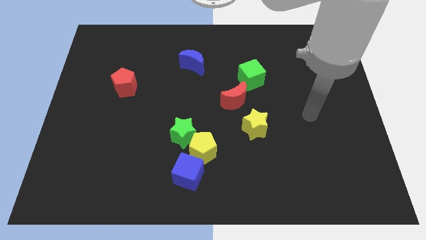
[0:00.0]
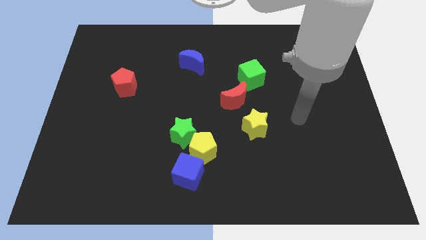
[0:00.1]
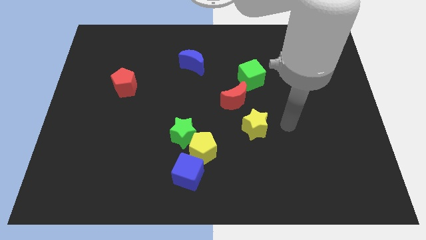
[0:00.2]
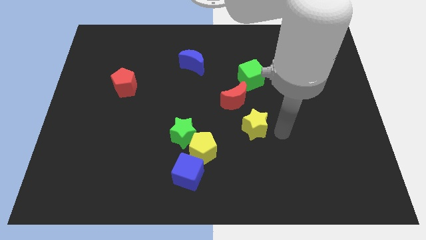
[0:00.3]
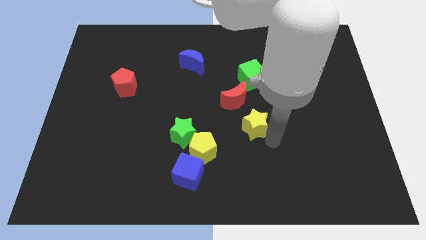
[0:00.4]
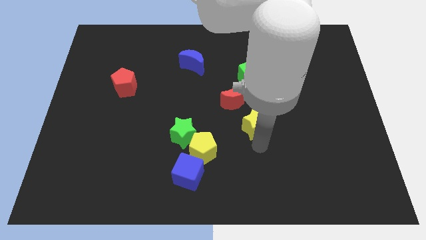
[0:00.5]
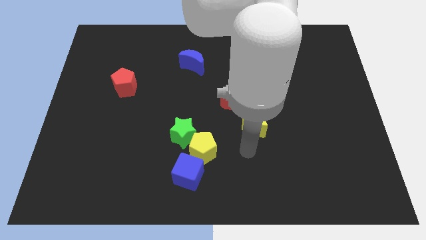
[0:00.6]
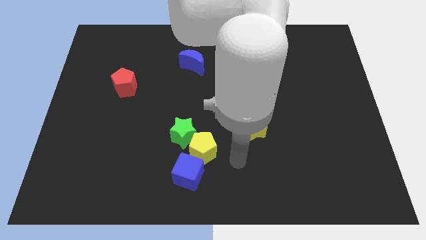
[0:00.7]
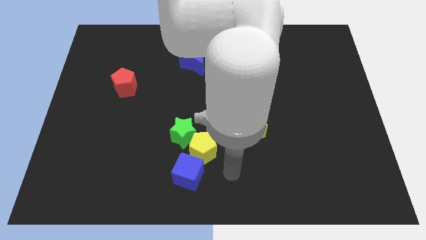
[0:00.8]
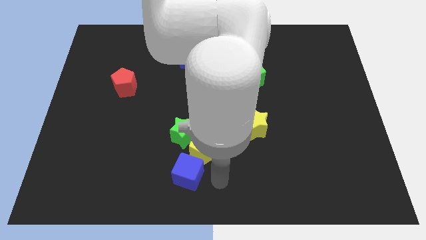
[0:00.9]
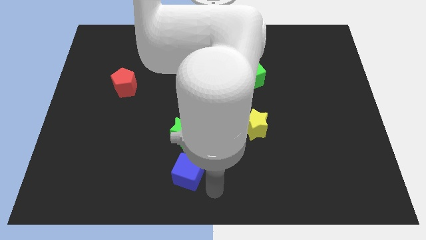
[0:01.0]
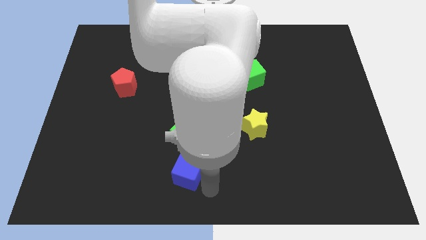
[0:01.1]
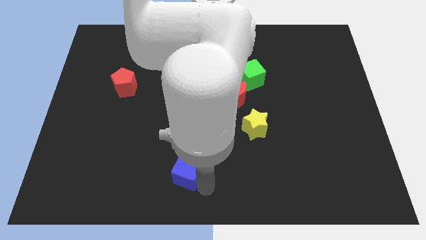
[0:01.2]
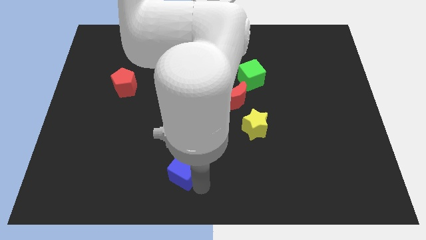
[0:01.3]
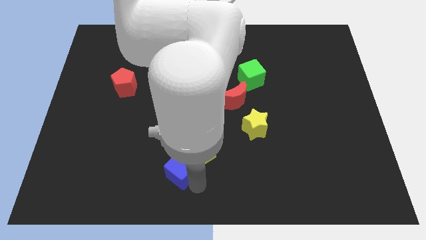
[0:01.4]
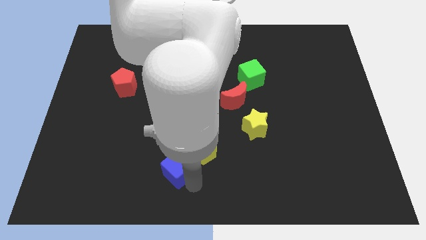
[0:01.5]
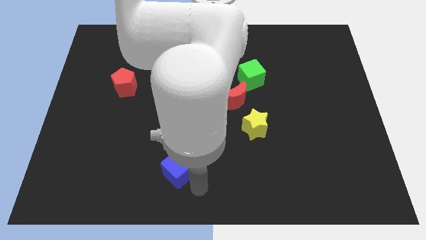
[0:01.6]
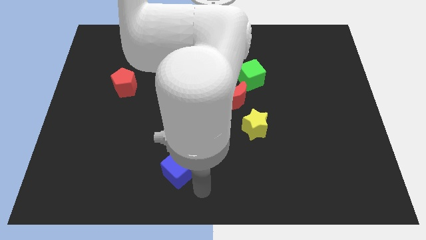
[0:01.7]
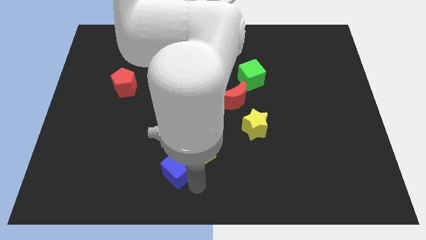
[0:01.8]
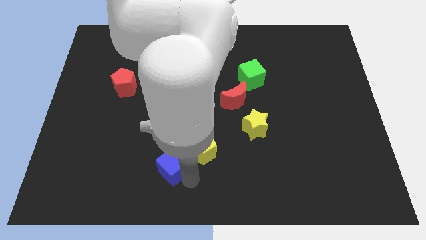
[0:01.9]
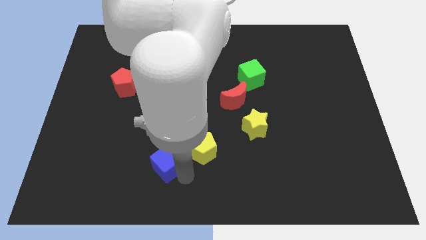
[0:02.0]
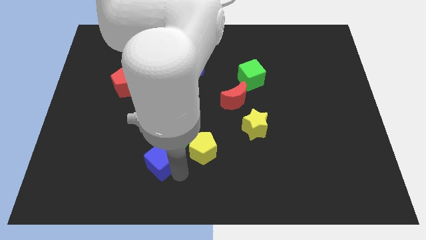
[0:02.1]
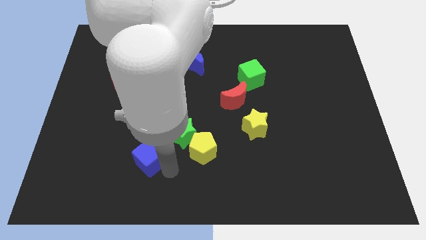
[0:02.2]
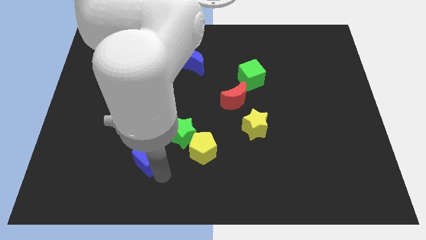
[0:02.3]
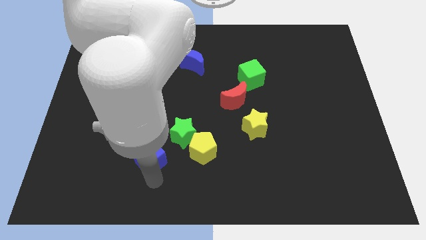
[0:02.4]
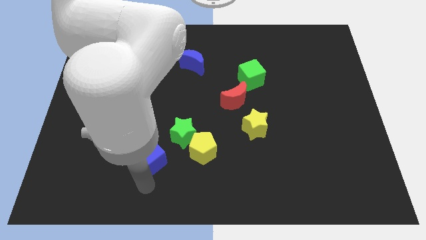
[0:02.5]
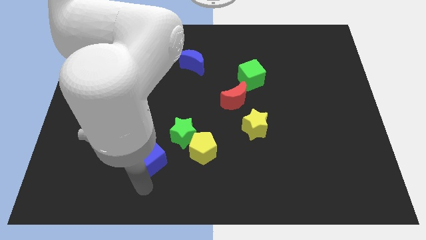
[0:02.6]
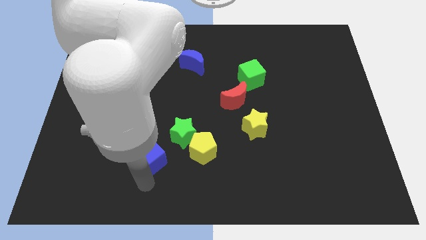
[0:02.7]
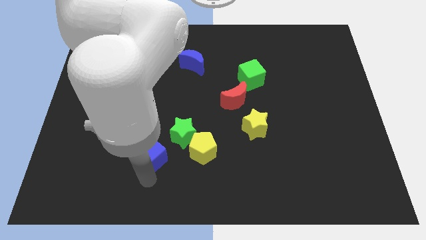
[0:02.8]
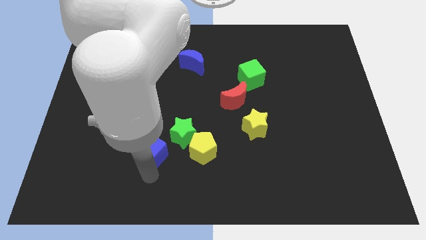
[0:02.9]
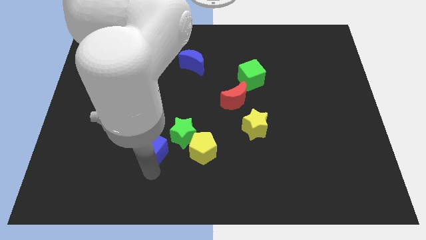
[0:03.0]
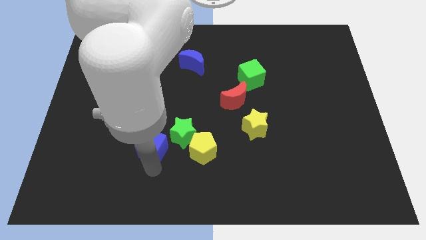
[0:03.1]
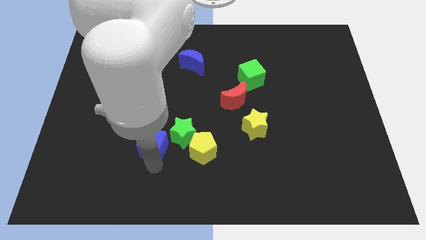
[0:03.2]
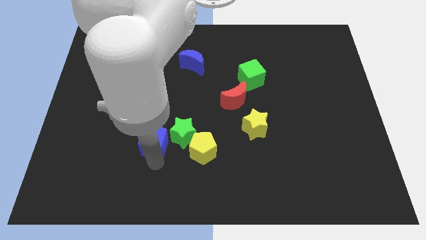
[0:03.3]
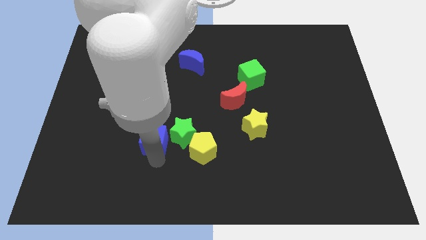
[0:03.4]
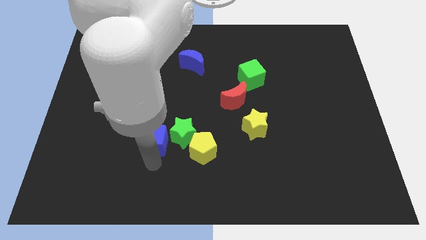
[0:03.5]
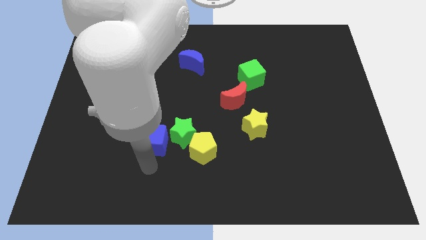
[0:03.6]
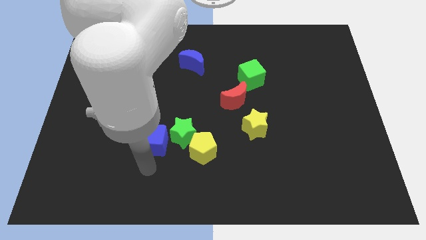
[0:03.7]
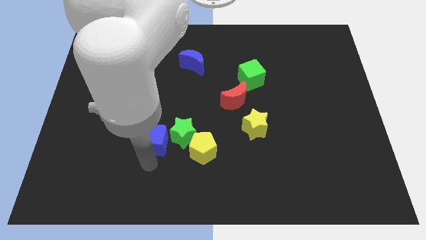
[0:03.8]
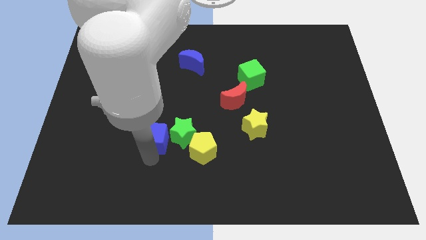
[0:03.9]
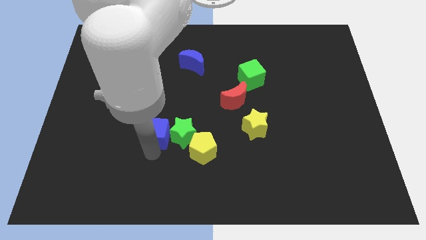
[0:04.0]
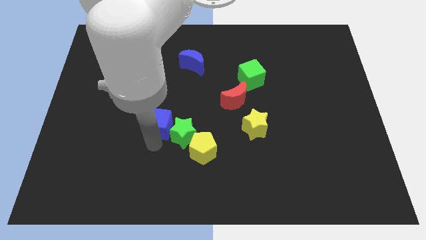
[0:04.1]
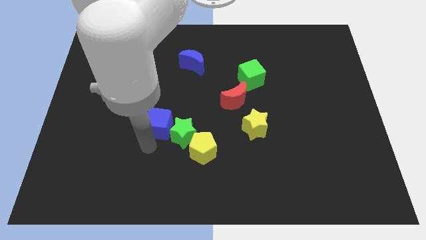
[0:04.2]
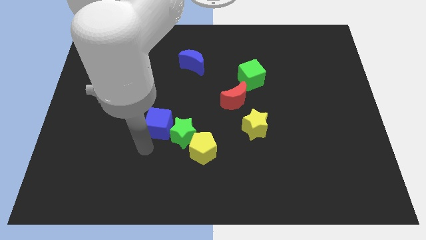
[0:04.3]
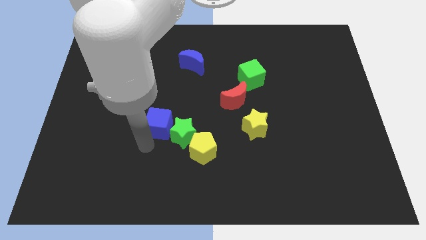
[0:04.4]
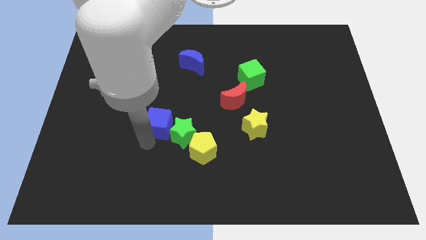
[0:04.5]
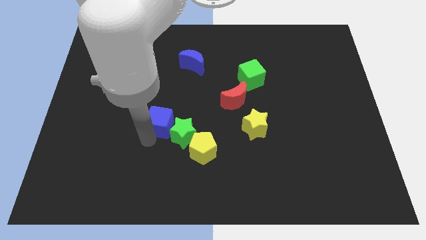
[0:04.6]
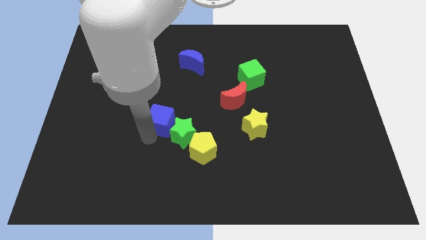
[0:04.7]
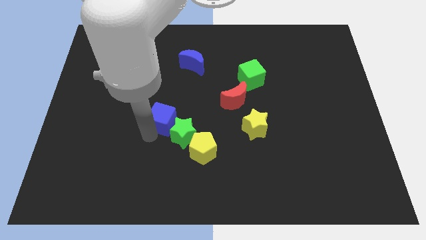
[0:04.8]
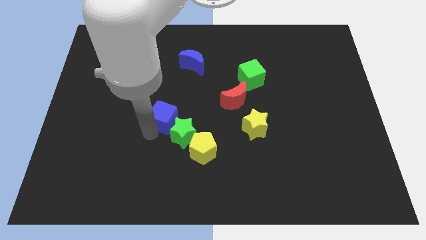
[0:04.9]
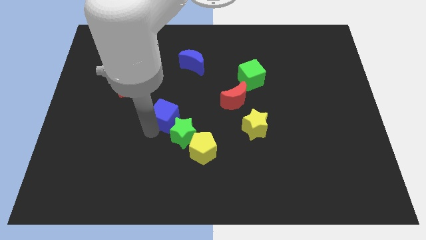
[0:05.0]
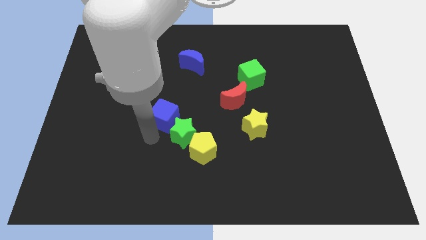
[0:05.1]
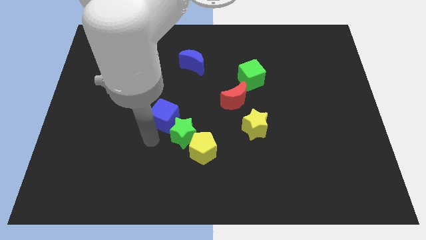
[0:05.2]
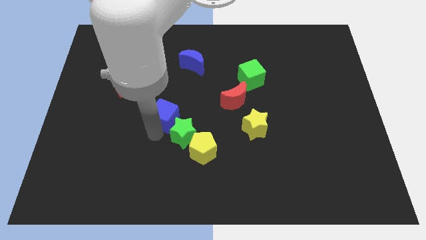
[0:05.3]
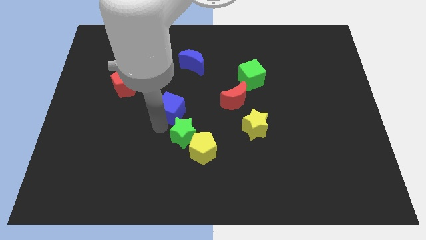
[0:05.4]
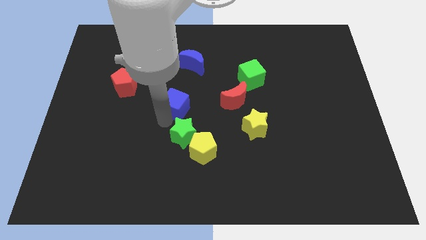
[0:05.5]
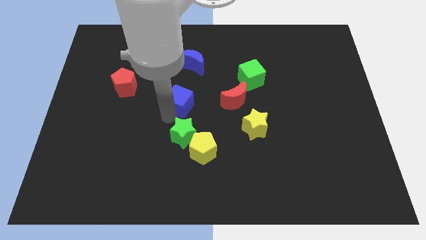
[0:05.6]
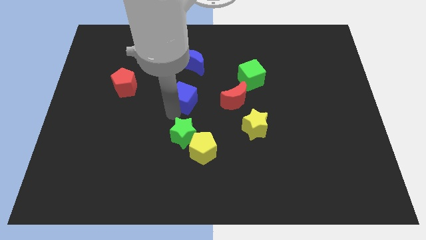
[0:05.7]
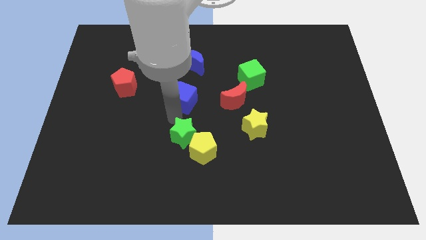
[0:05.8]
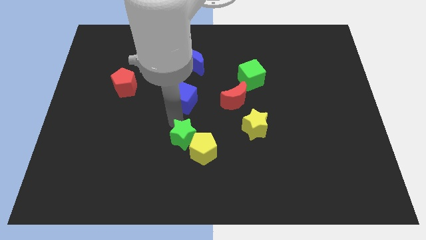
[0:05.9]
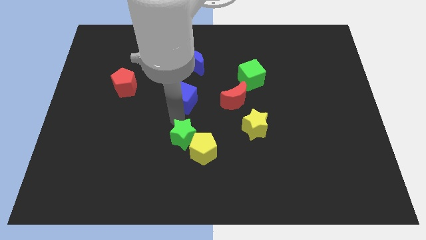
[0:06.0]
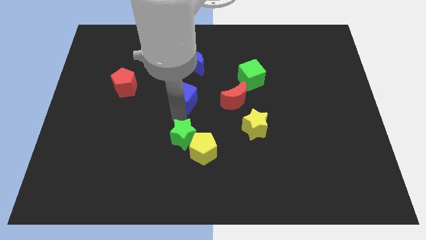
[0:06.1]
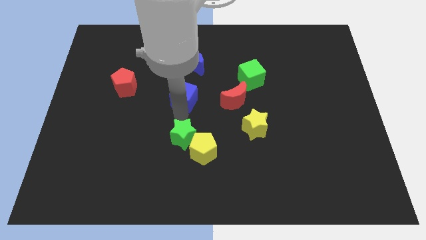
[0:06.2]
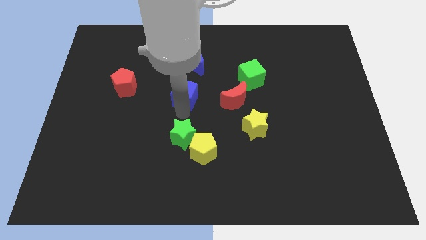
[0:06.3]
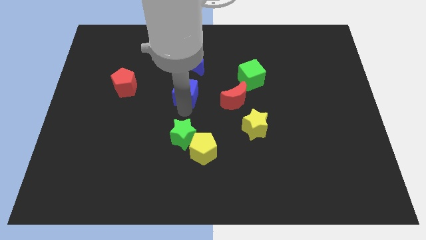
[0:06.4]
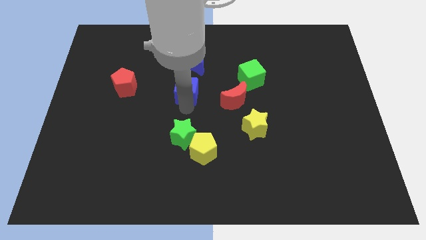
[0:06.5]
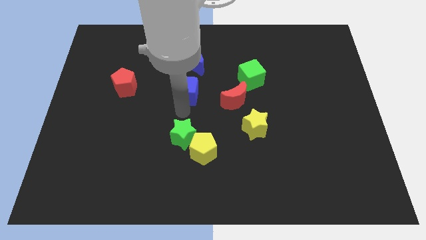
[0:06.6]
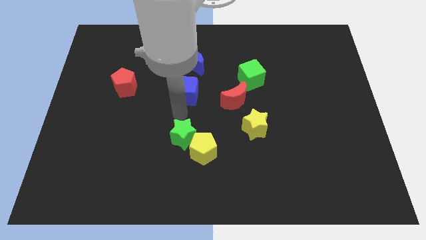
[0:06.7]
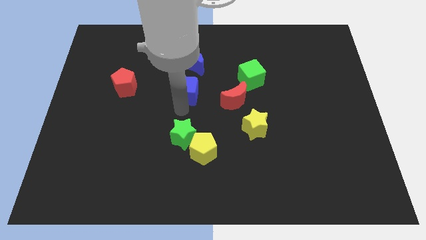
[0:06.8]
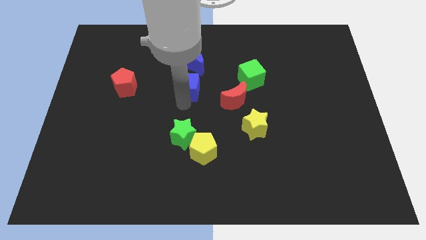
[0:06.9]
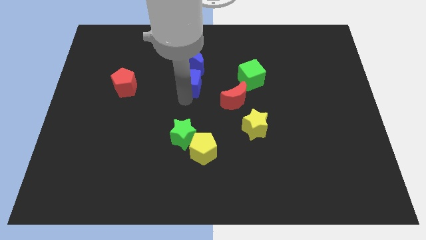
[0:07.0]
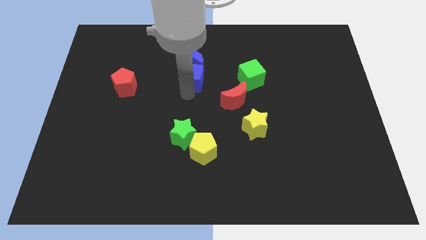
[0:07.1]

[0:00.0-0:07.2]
put the blue cube close to the blue moon
